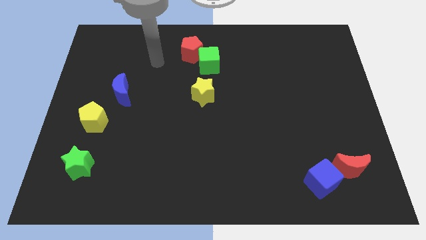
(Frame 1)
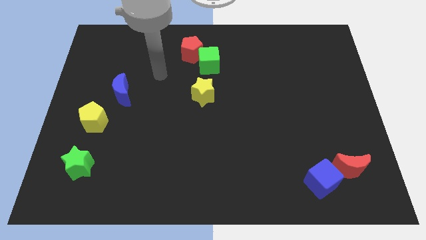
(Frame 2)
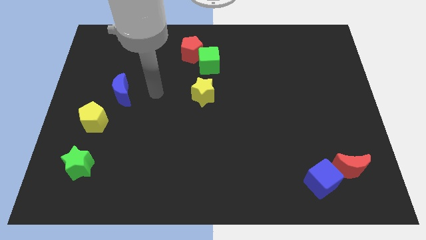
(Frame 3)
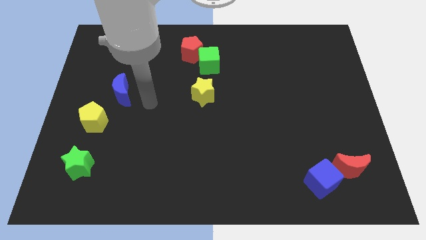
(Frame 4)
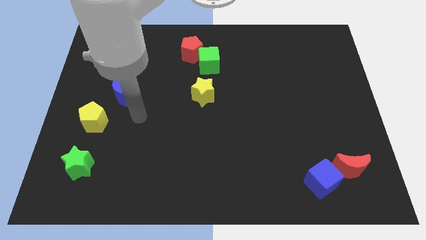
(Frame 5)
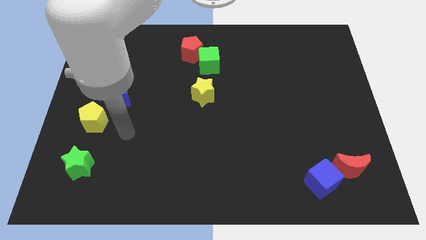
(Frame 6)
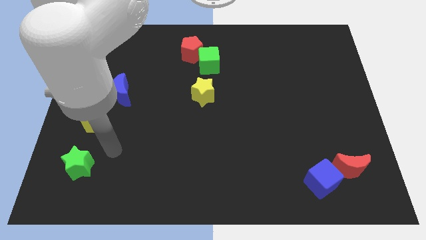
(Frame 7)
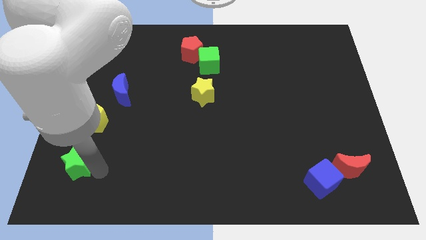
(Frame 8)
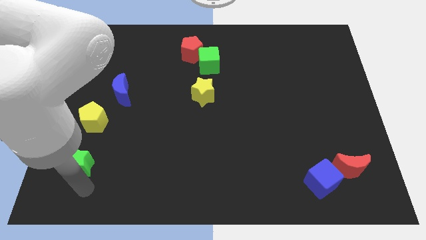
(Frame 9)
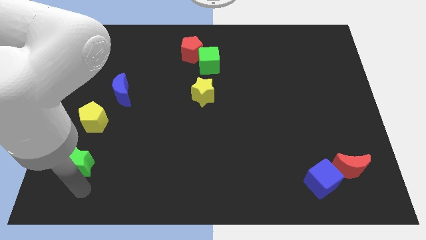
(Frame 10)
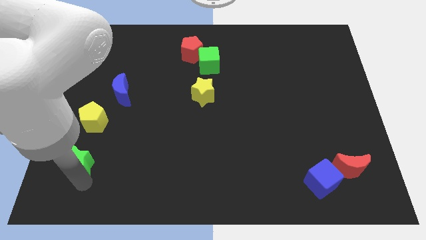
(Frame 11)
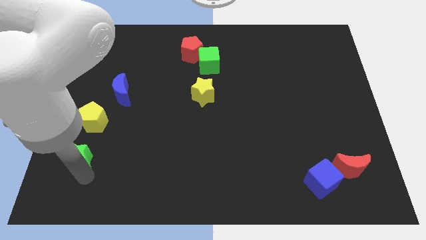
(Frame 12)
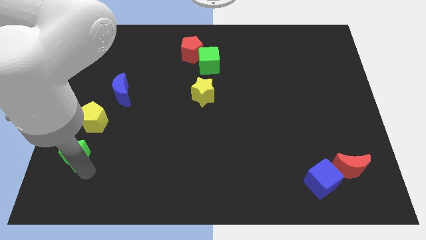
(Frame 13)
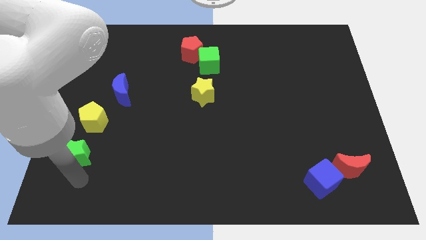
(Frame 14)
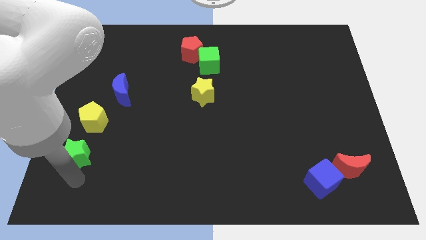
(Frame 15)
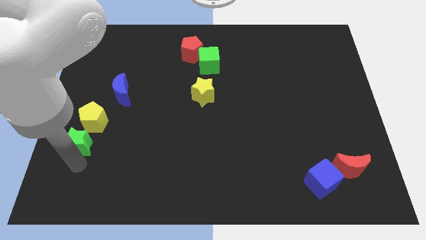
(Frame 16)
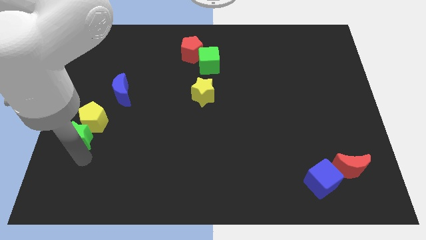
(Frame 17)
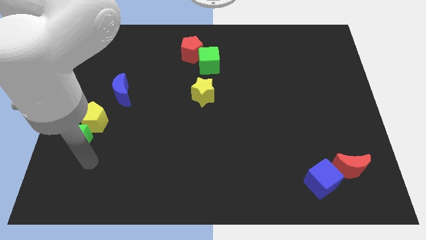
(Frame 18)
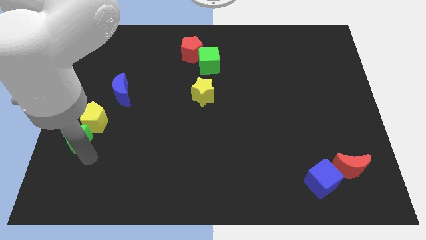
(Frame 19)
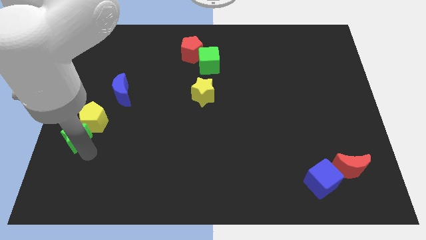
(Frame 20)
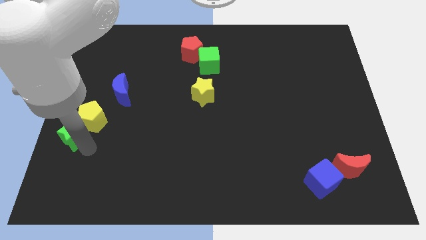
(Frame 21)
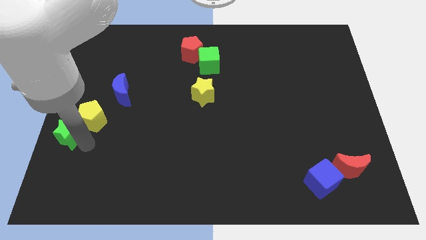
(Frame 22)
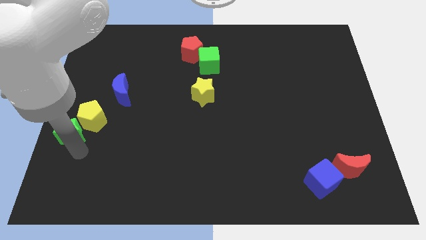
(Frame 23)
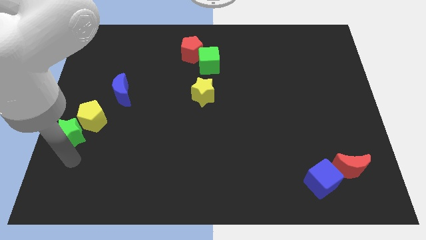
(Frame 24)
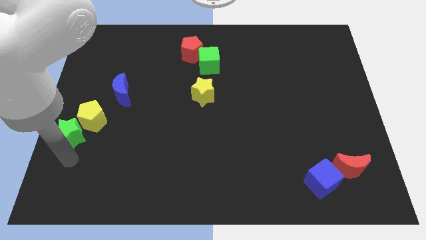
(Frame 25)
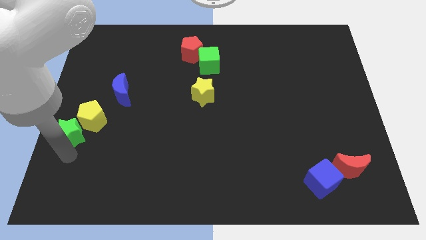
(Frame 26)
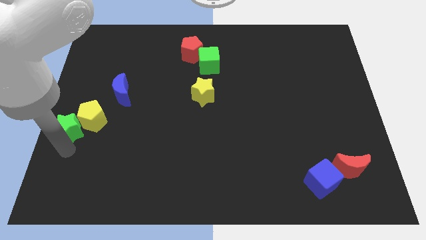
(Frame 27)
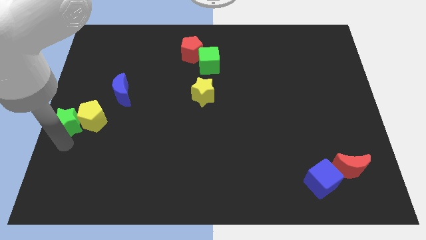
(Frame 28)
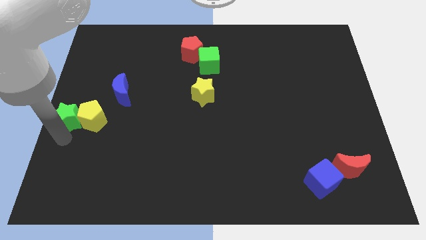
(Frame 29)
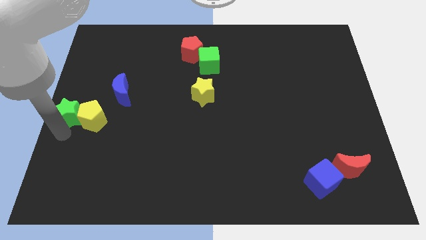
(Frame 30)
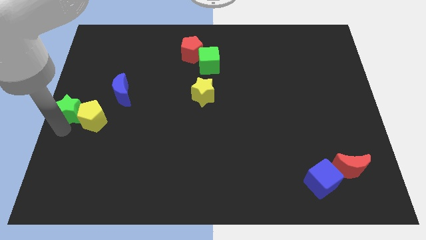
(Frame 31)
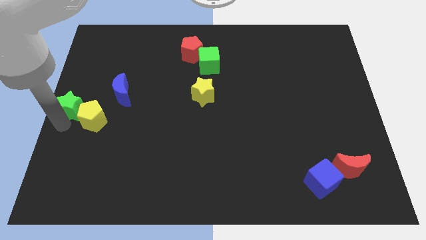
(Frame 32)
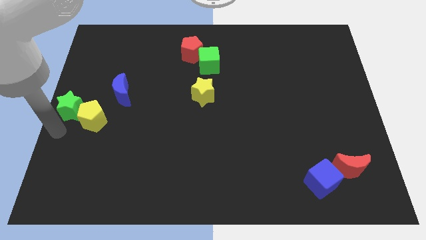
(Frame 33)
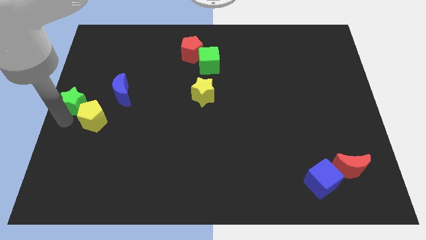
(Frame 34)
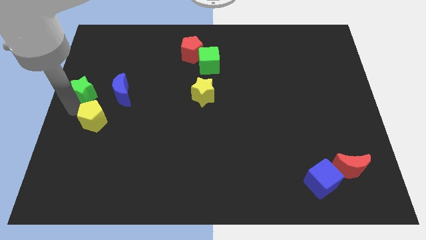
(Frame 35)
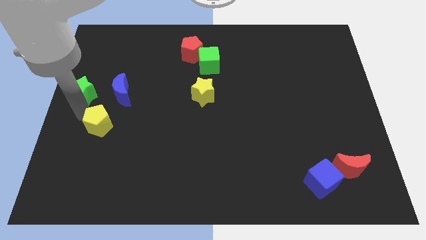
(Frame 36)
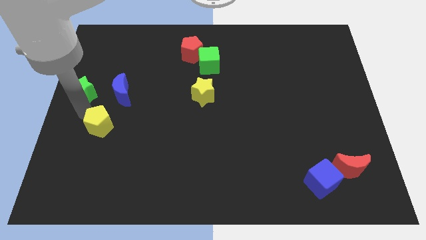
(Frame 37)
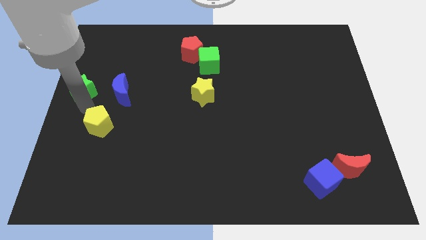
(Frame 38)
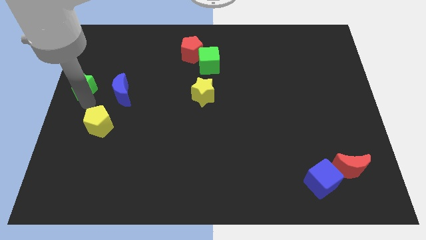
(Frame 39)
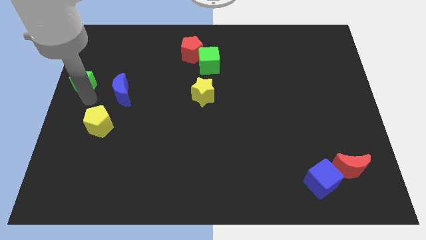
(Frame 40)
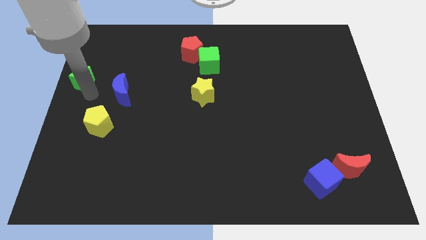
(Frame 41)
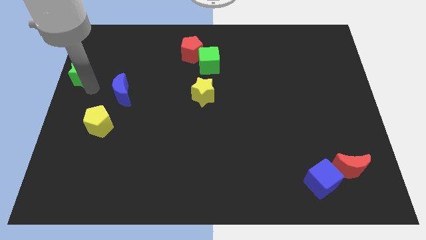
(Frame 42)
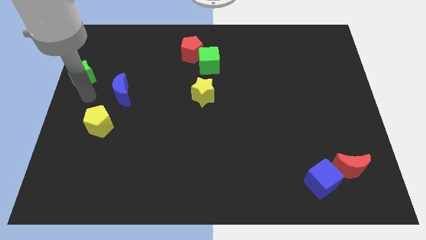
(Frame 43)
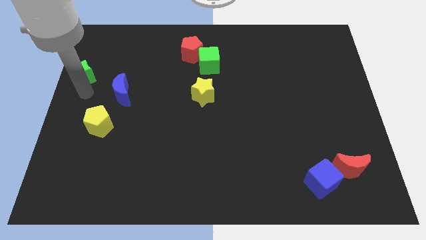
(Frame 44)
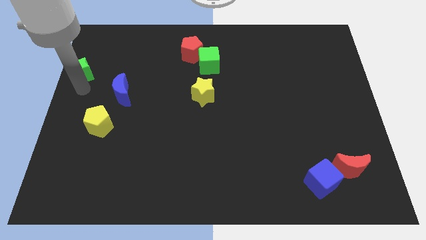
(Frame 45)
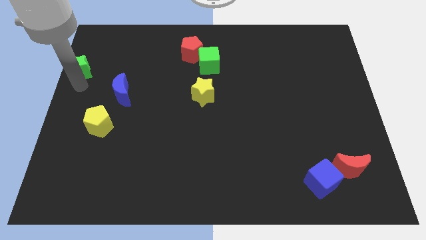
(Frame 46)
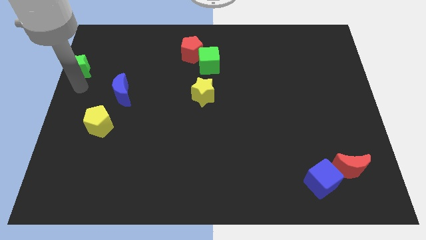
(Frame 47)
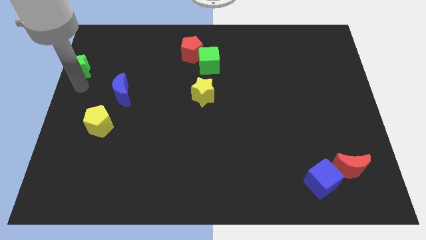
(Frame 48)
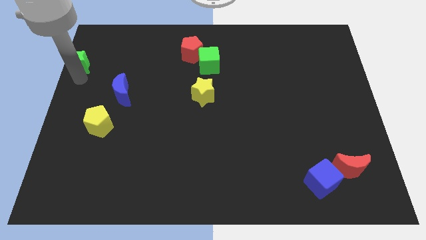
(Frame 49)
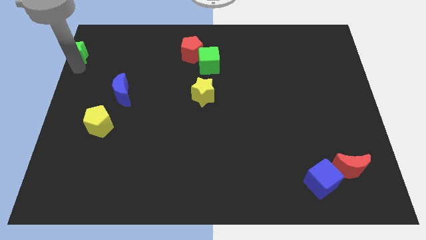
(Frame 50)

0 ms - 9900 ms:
move the green star to the top left of the board

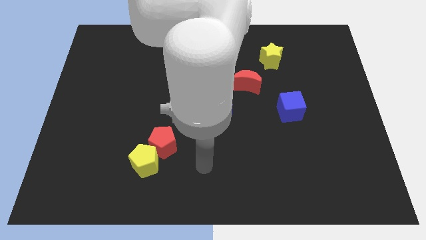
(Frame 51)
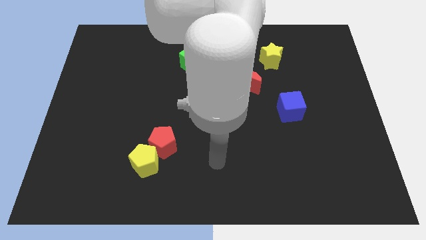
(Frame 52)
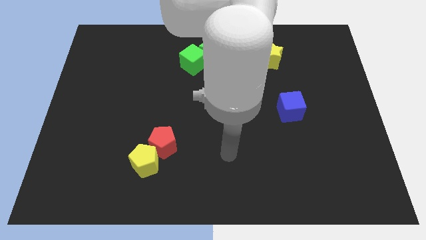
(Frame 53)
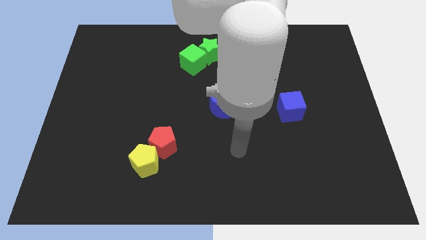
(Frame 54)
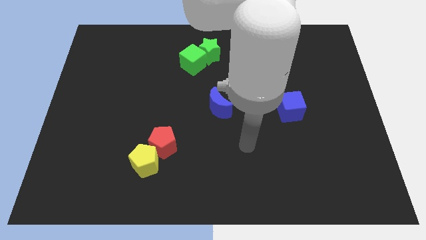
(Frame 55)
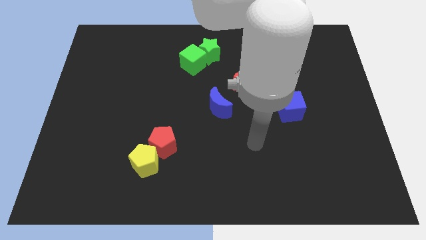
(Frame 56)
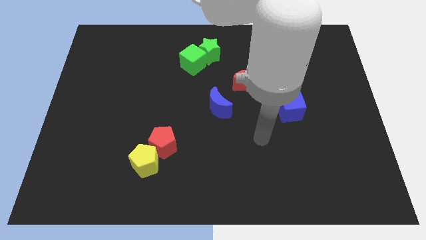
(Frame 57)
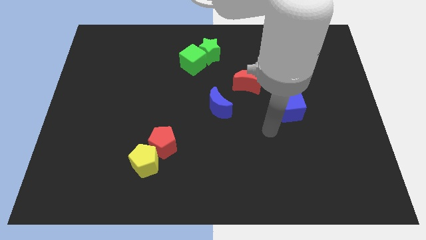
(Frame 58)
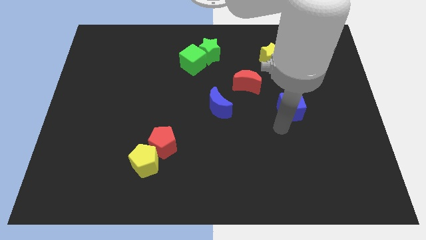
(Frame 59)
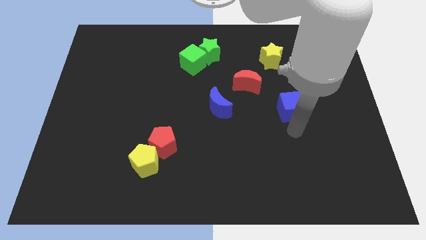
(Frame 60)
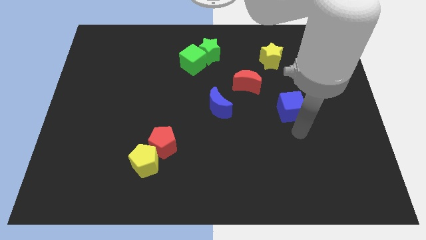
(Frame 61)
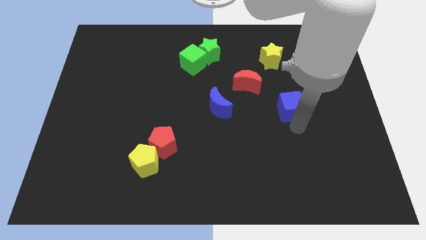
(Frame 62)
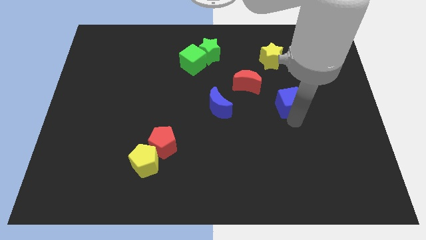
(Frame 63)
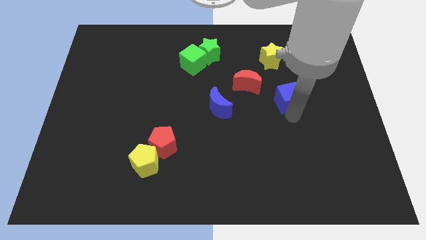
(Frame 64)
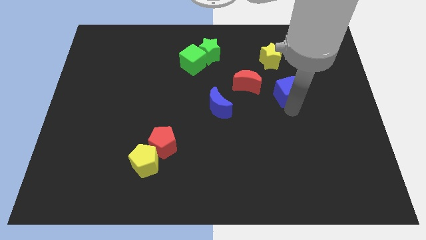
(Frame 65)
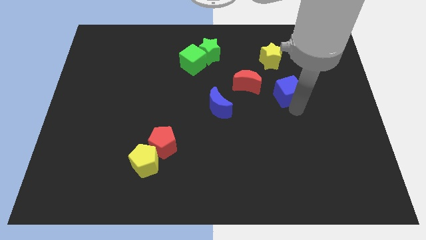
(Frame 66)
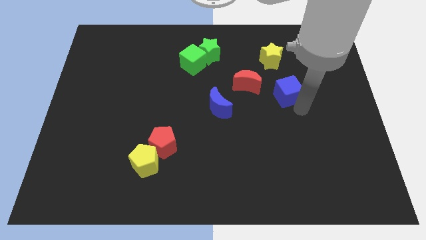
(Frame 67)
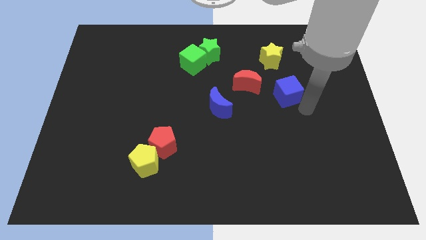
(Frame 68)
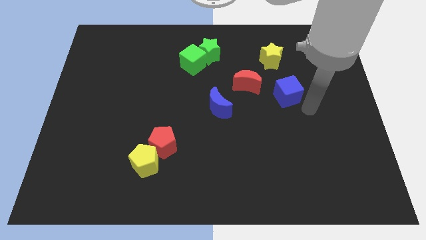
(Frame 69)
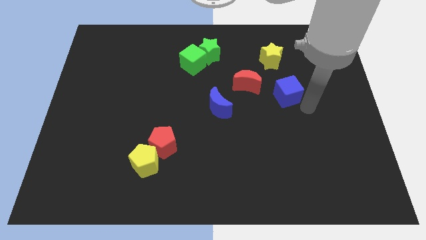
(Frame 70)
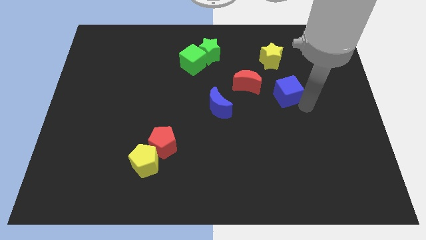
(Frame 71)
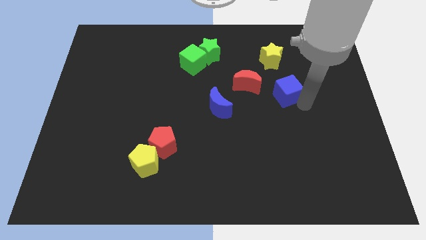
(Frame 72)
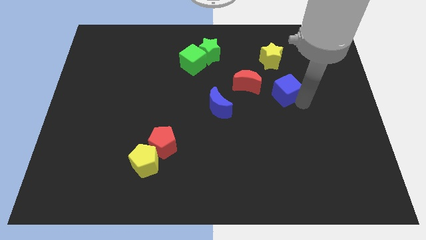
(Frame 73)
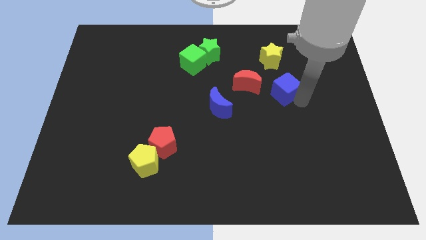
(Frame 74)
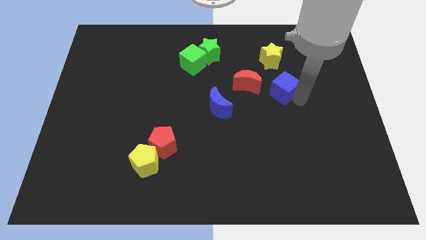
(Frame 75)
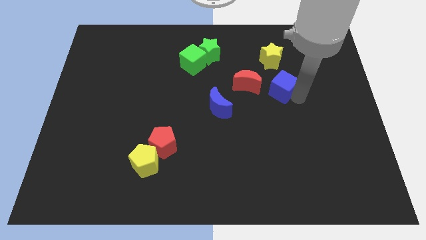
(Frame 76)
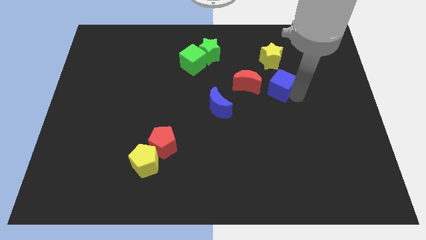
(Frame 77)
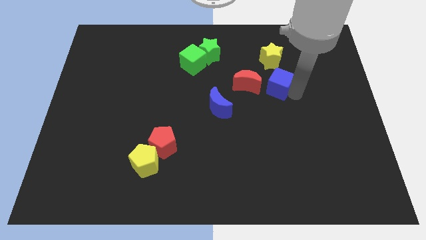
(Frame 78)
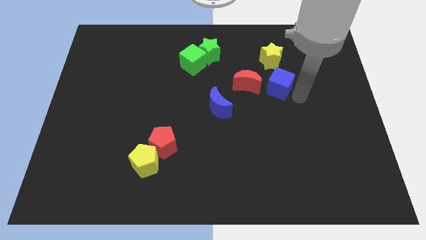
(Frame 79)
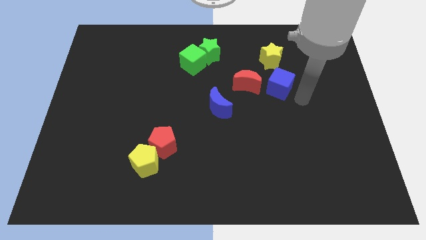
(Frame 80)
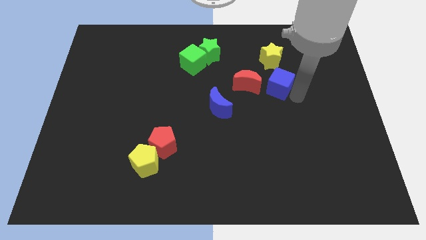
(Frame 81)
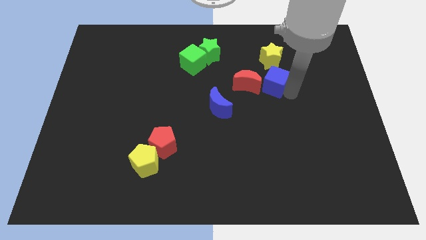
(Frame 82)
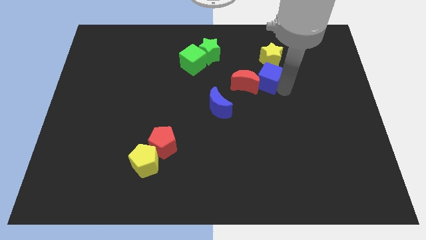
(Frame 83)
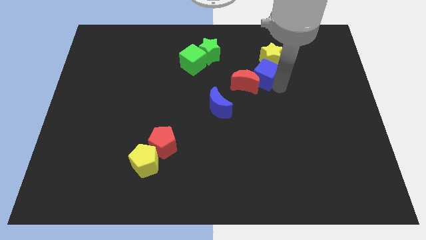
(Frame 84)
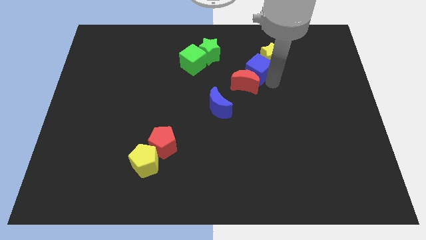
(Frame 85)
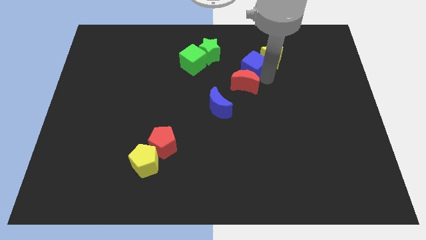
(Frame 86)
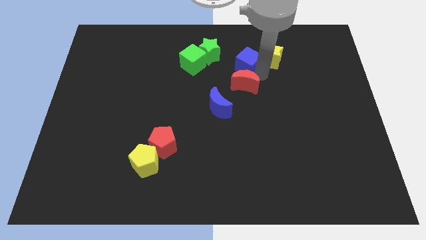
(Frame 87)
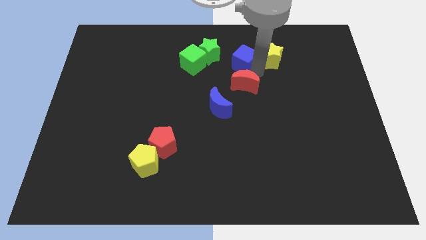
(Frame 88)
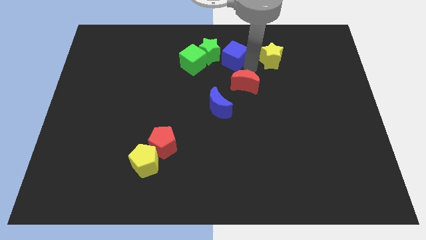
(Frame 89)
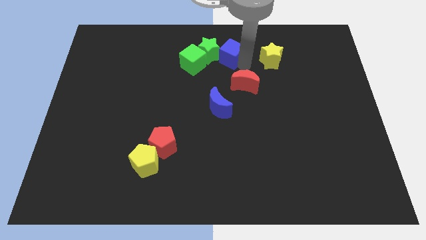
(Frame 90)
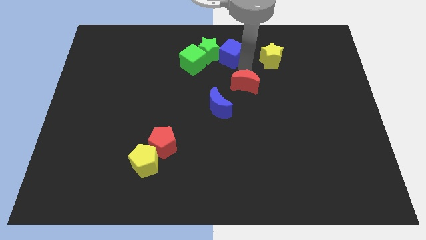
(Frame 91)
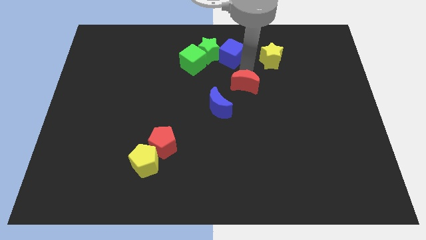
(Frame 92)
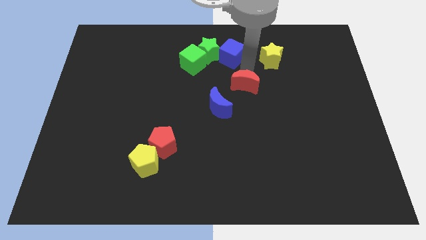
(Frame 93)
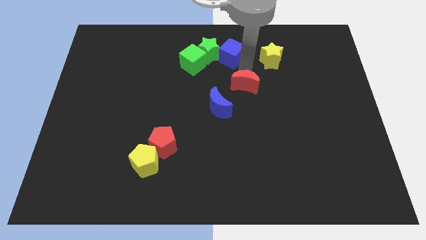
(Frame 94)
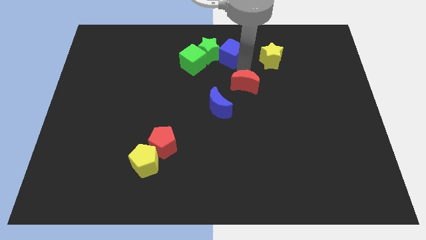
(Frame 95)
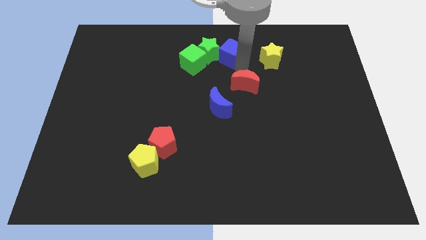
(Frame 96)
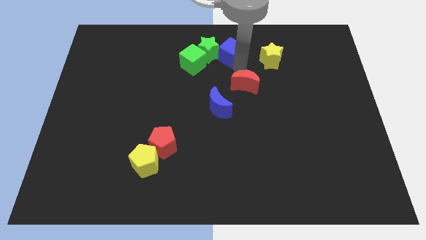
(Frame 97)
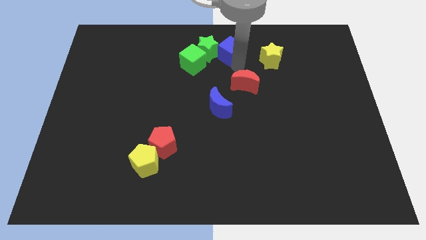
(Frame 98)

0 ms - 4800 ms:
put the blue cube to the top
